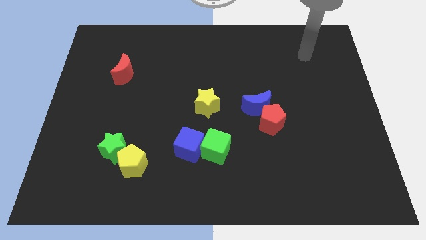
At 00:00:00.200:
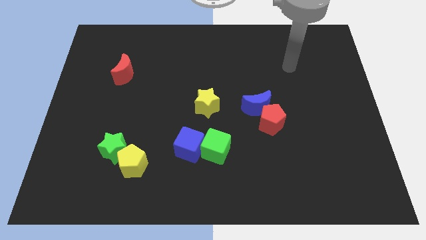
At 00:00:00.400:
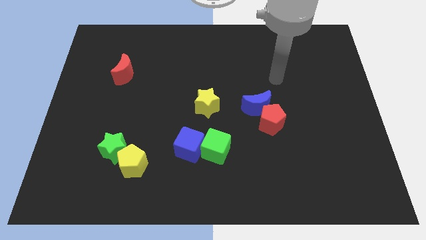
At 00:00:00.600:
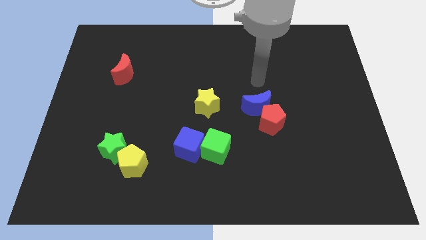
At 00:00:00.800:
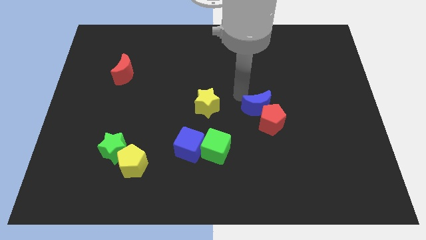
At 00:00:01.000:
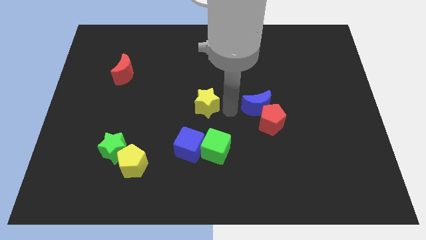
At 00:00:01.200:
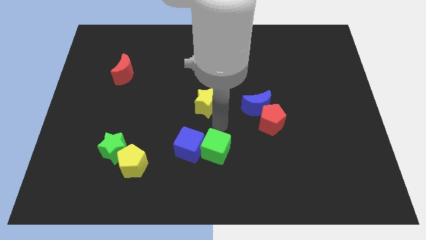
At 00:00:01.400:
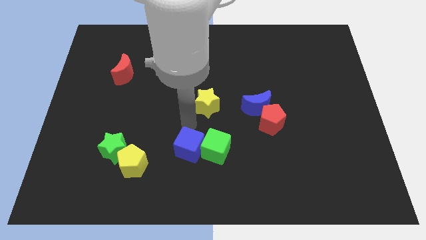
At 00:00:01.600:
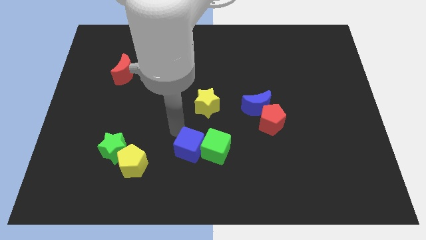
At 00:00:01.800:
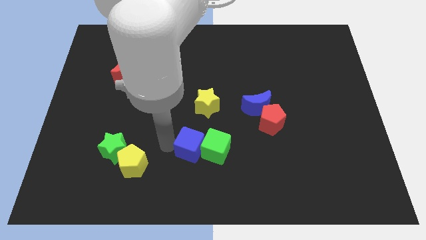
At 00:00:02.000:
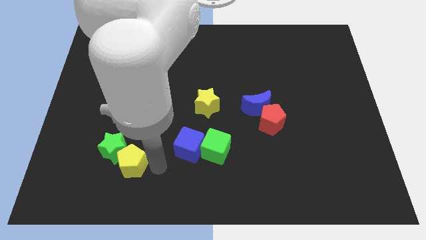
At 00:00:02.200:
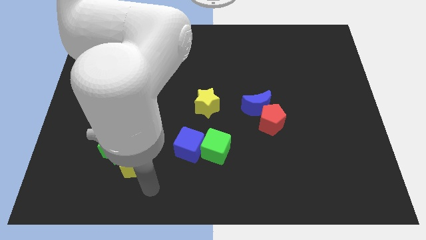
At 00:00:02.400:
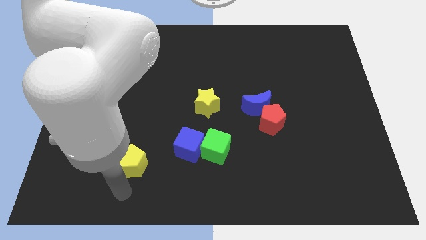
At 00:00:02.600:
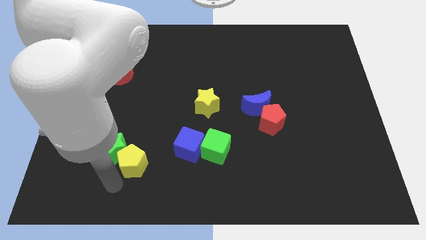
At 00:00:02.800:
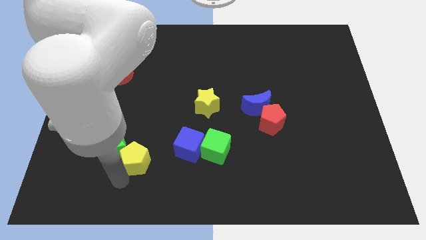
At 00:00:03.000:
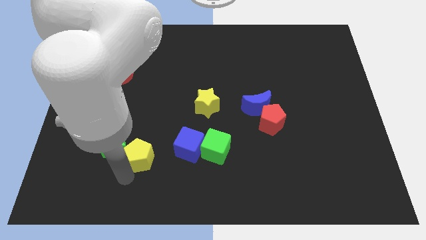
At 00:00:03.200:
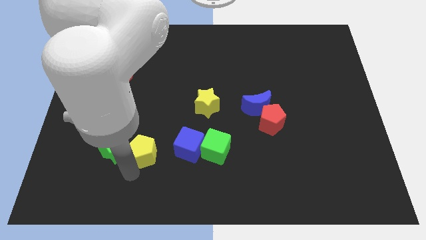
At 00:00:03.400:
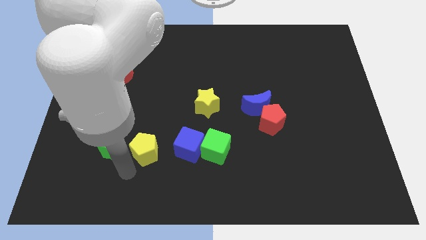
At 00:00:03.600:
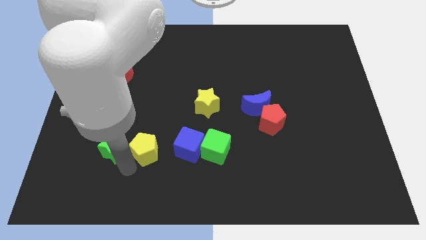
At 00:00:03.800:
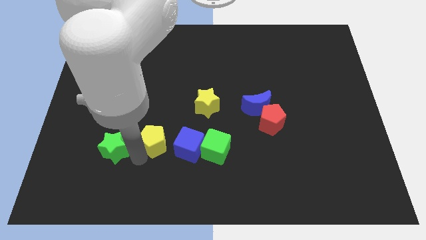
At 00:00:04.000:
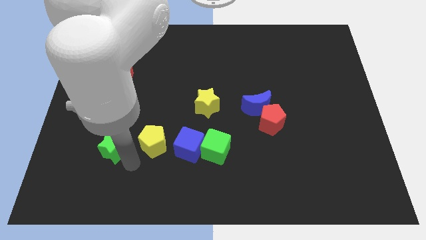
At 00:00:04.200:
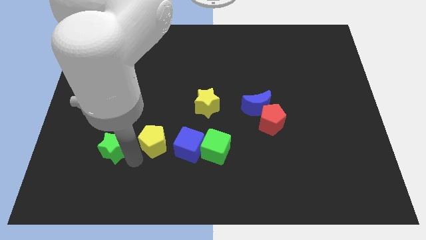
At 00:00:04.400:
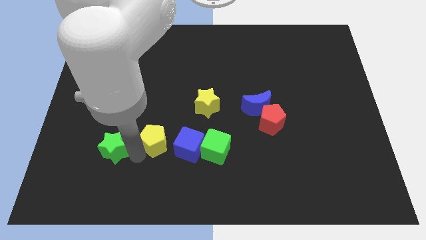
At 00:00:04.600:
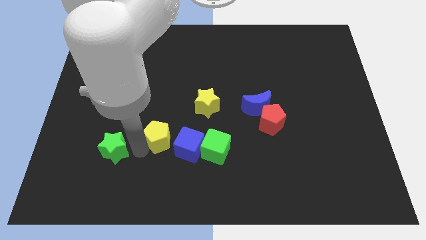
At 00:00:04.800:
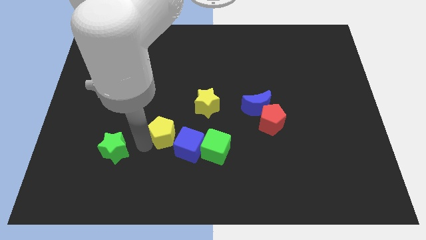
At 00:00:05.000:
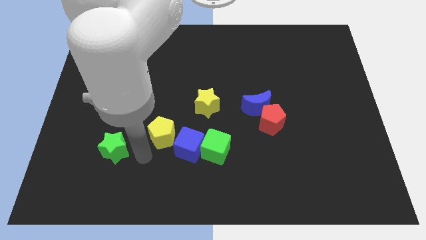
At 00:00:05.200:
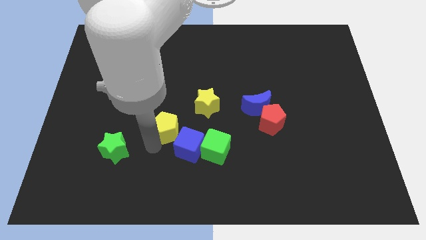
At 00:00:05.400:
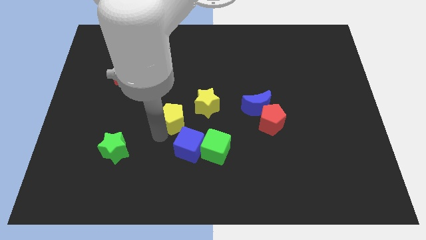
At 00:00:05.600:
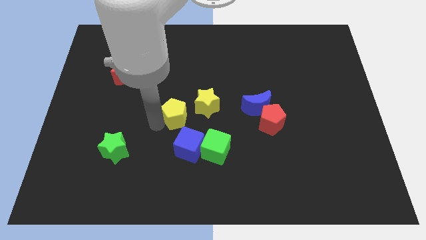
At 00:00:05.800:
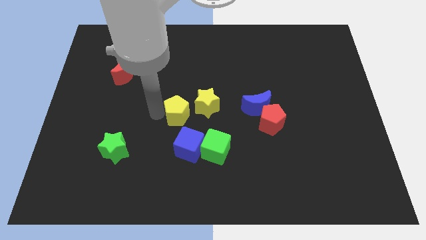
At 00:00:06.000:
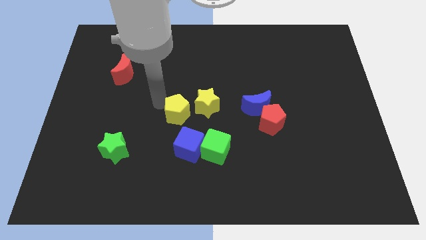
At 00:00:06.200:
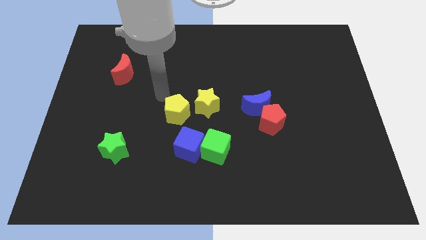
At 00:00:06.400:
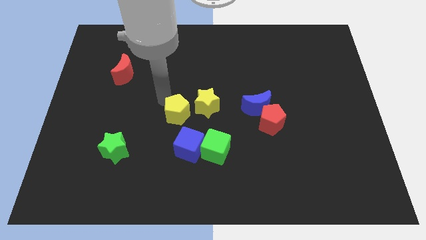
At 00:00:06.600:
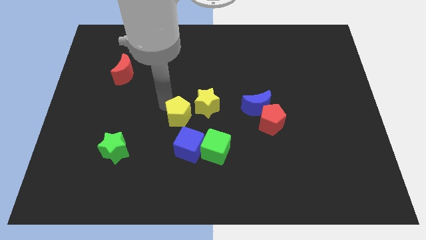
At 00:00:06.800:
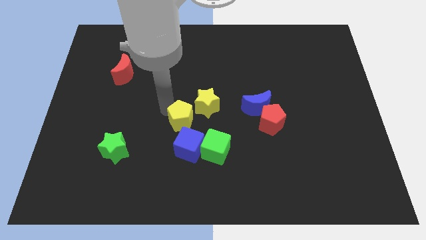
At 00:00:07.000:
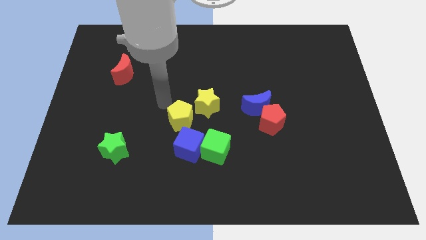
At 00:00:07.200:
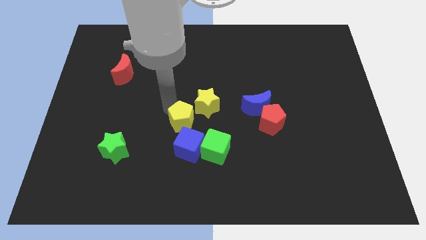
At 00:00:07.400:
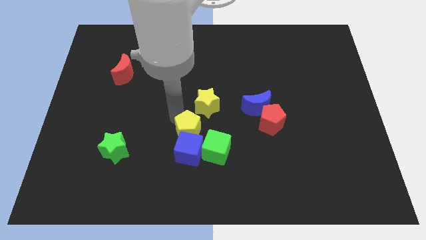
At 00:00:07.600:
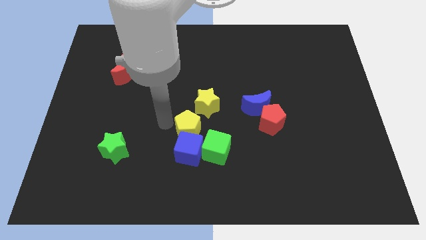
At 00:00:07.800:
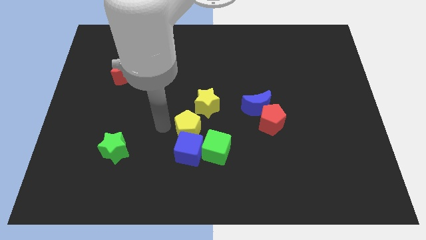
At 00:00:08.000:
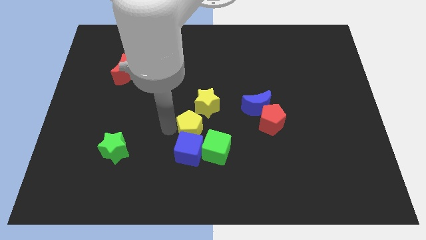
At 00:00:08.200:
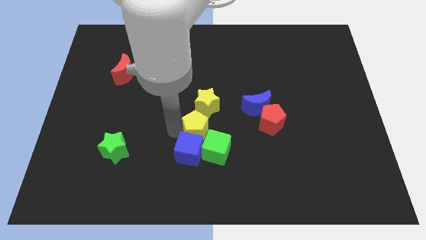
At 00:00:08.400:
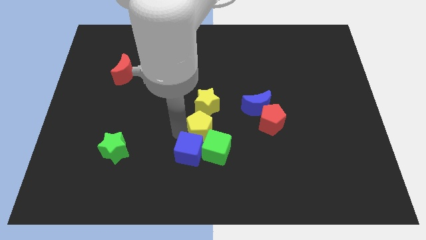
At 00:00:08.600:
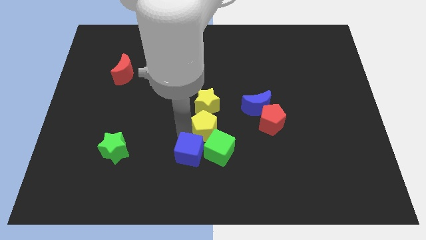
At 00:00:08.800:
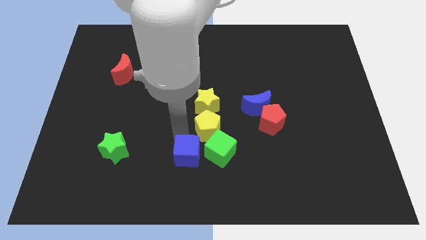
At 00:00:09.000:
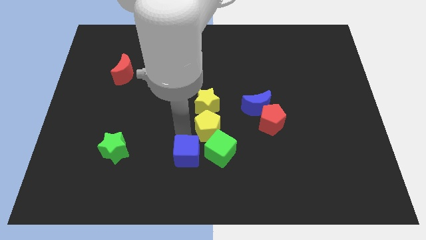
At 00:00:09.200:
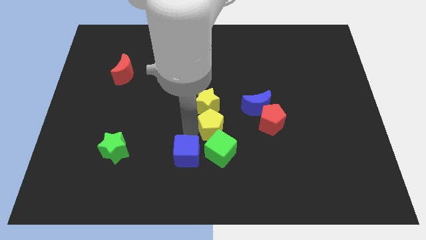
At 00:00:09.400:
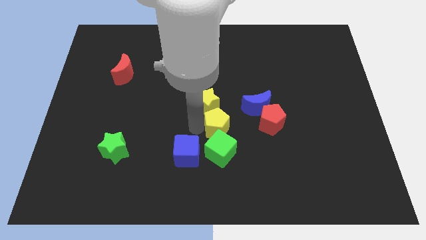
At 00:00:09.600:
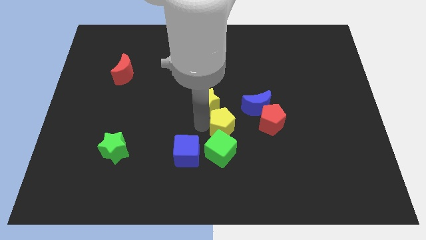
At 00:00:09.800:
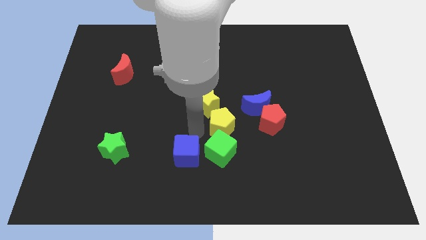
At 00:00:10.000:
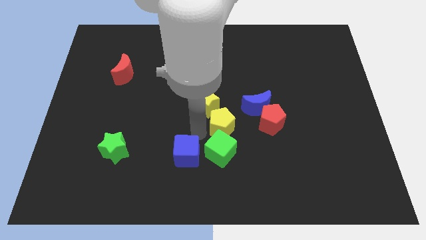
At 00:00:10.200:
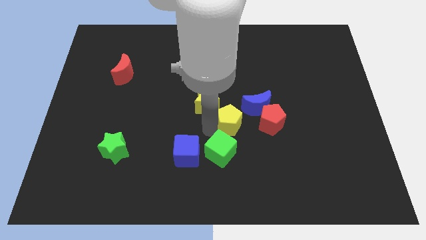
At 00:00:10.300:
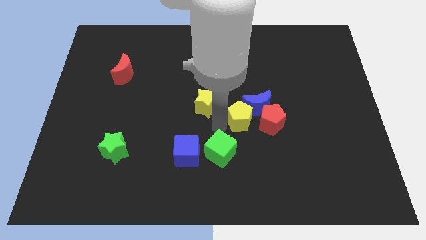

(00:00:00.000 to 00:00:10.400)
put the yellow pentagon to the blue moon

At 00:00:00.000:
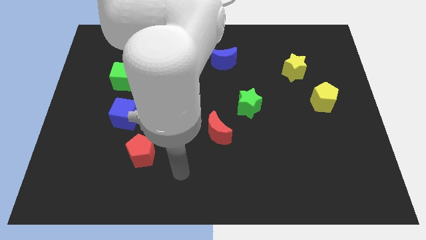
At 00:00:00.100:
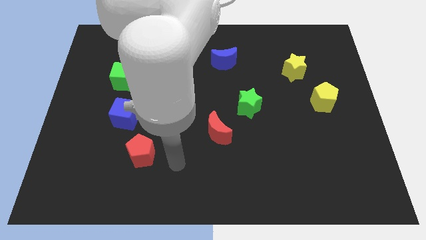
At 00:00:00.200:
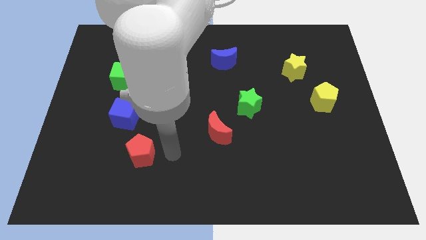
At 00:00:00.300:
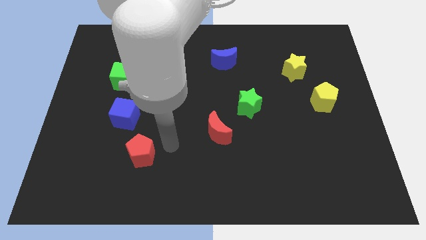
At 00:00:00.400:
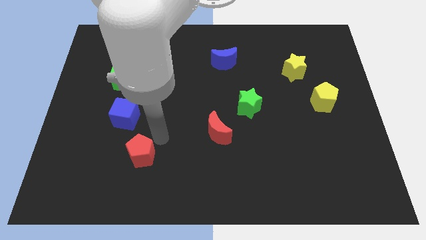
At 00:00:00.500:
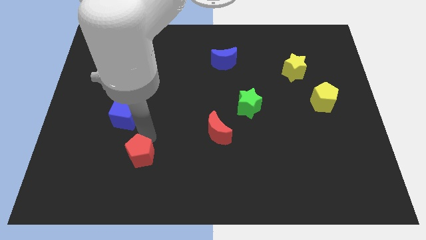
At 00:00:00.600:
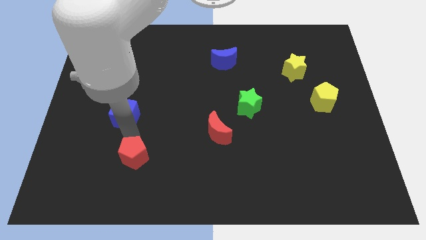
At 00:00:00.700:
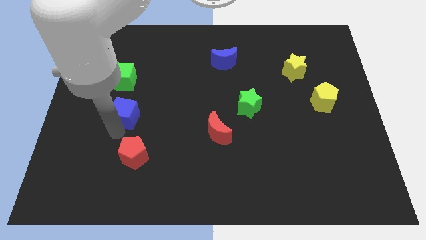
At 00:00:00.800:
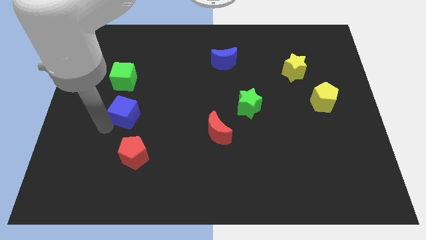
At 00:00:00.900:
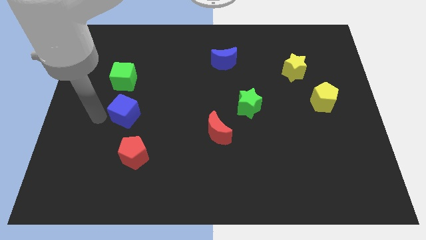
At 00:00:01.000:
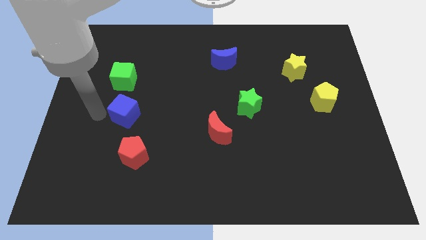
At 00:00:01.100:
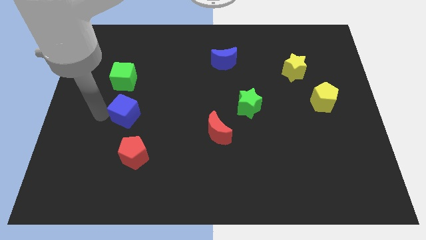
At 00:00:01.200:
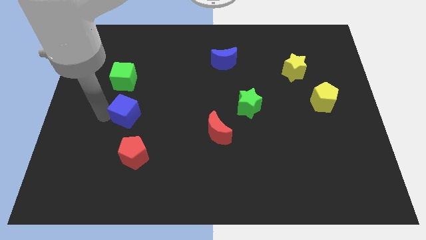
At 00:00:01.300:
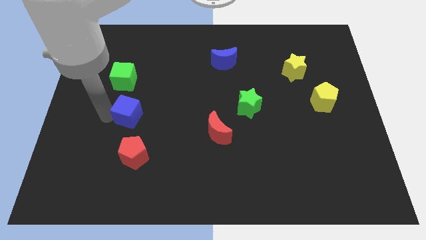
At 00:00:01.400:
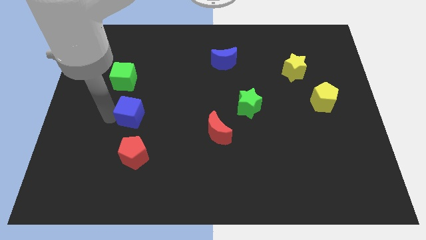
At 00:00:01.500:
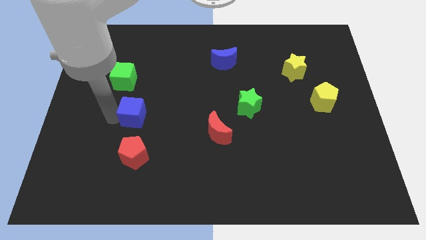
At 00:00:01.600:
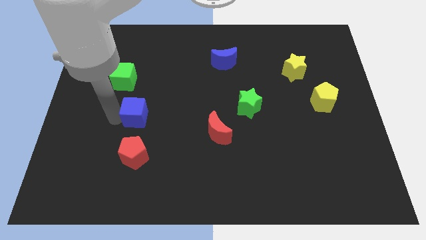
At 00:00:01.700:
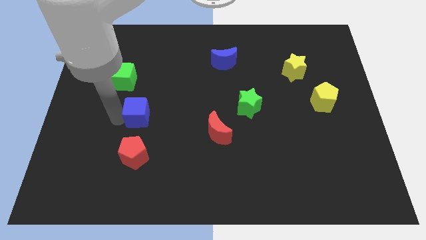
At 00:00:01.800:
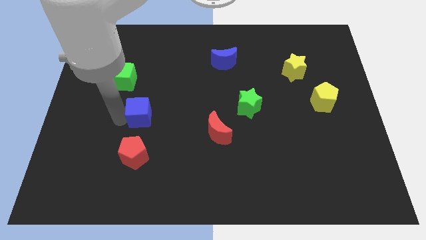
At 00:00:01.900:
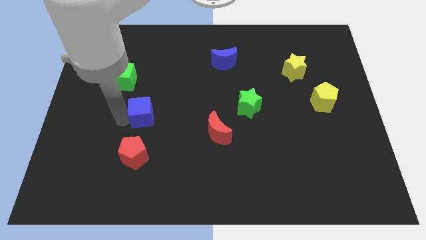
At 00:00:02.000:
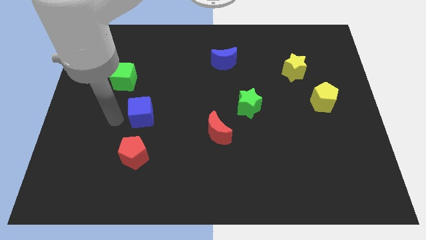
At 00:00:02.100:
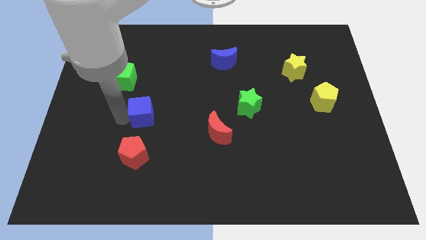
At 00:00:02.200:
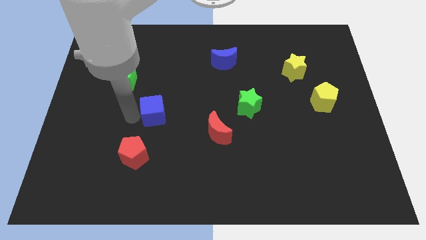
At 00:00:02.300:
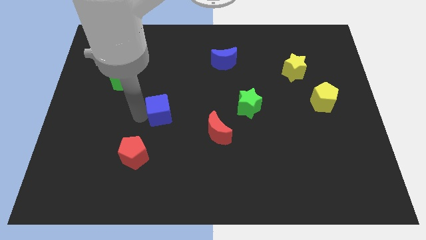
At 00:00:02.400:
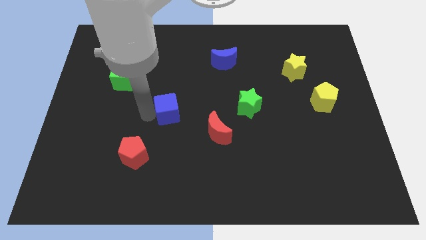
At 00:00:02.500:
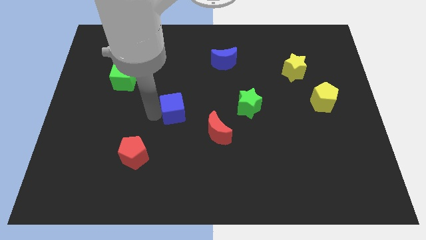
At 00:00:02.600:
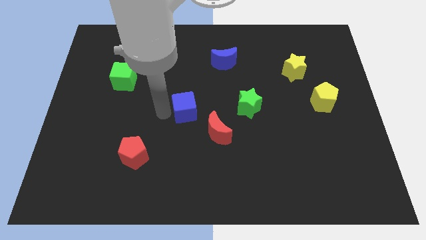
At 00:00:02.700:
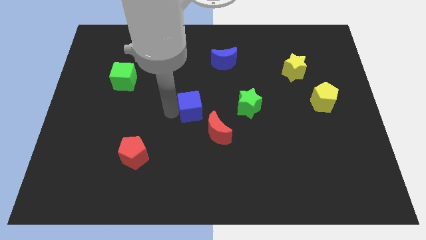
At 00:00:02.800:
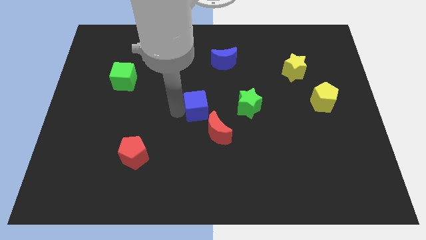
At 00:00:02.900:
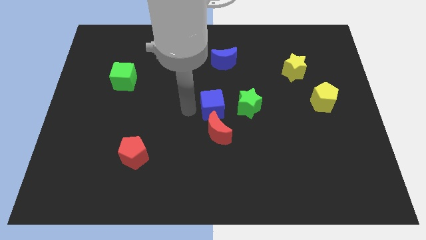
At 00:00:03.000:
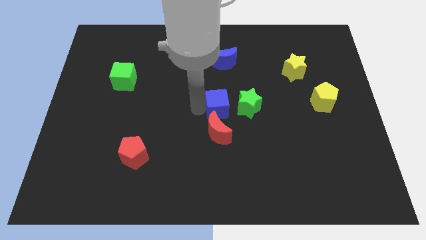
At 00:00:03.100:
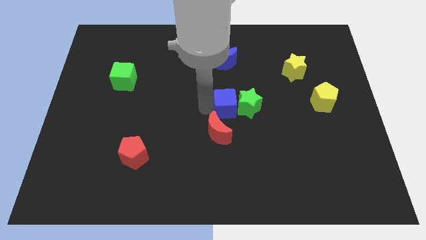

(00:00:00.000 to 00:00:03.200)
put the blue cube close to the green star
